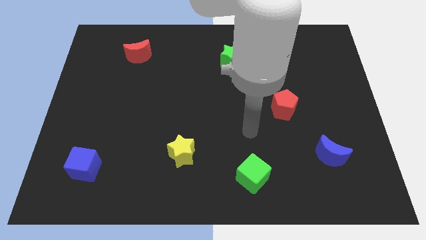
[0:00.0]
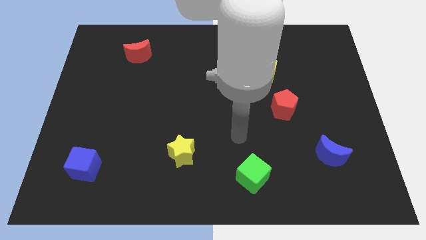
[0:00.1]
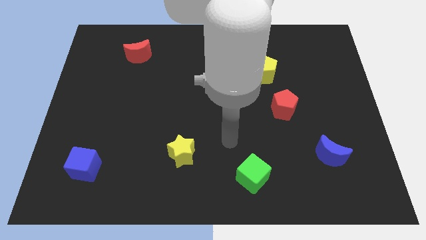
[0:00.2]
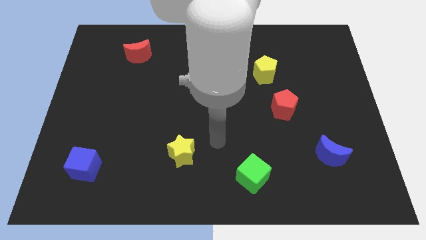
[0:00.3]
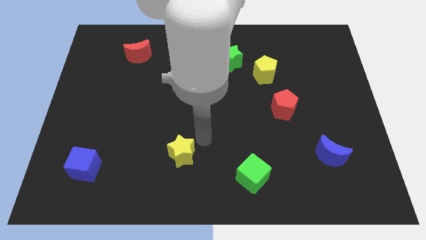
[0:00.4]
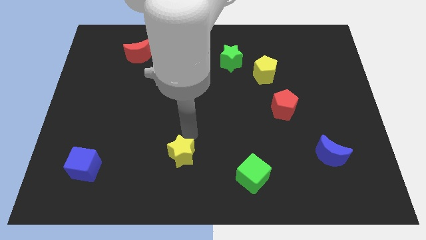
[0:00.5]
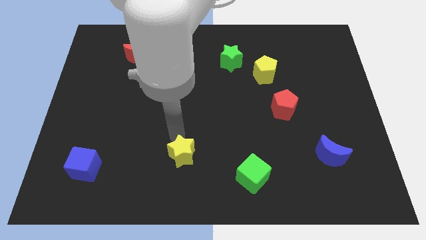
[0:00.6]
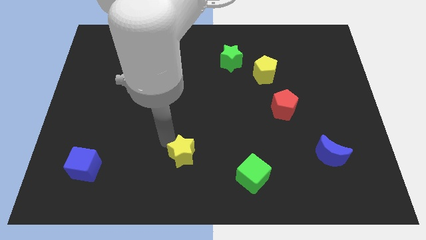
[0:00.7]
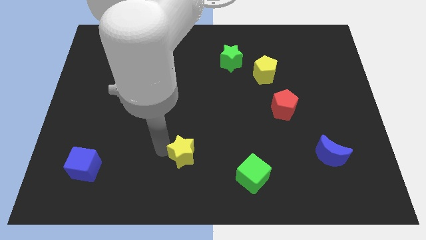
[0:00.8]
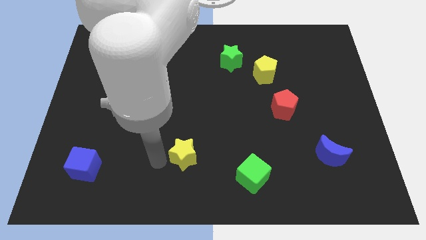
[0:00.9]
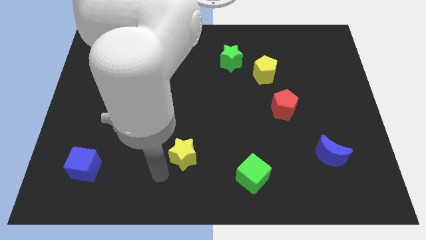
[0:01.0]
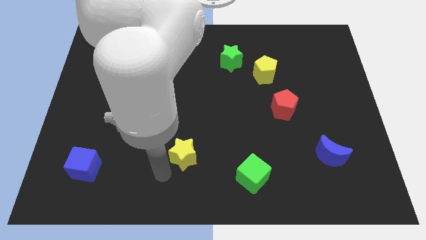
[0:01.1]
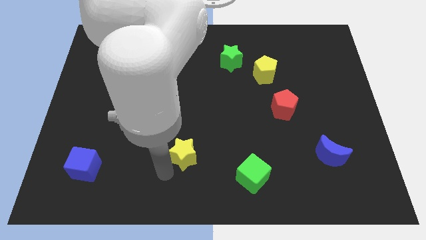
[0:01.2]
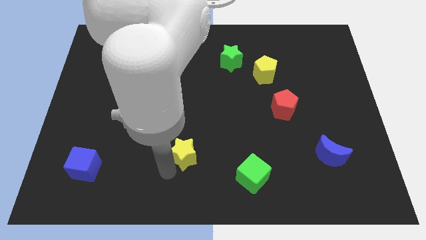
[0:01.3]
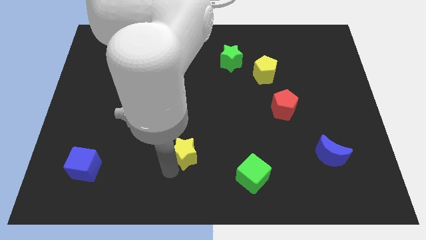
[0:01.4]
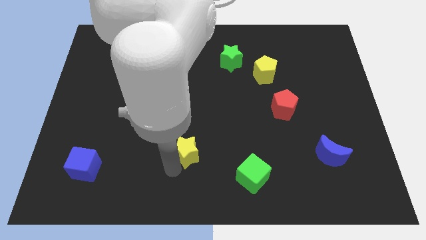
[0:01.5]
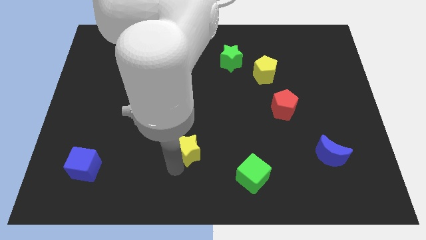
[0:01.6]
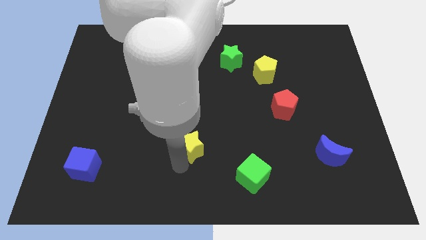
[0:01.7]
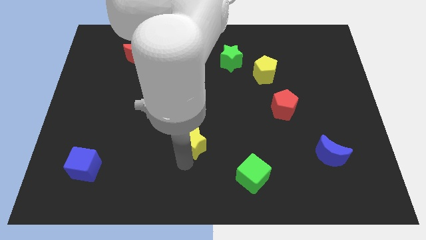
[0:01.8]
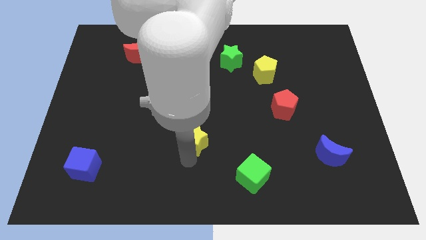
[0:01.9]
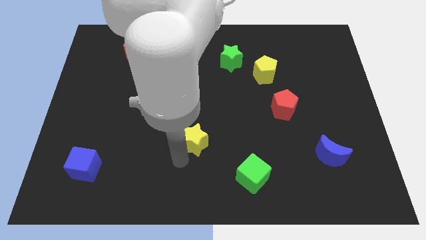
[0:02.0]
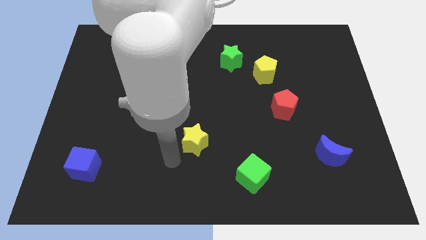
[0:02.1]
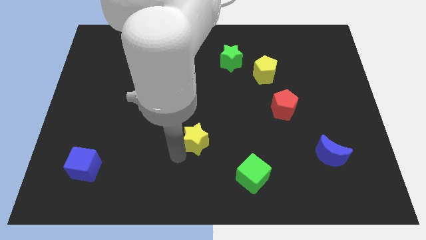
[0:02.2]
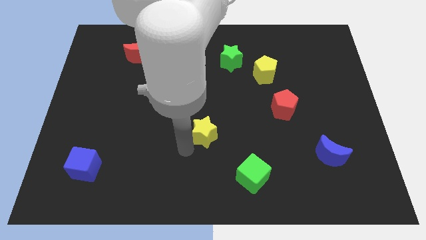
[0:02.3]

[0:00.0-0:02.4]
slide the yellow star diagonally upwards and to the right somewhat

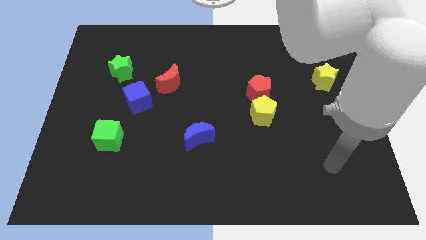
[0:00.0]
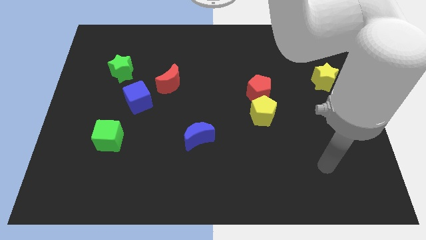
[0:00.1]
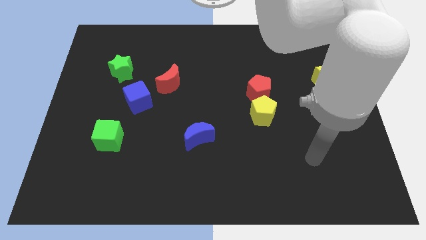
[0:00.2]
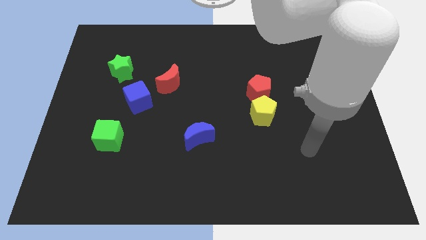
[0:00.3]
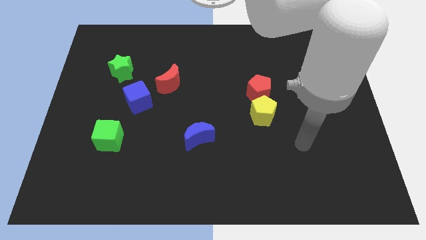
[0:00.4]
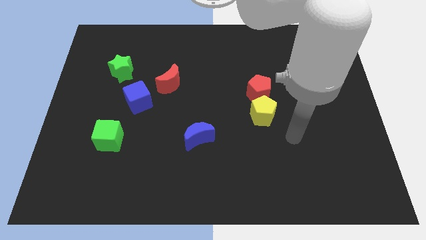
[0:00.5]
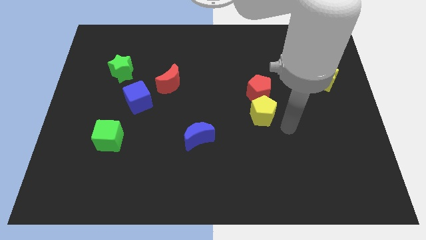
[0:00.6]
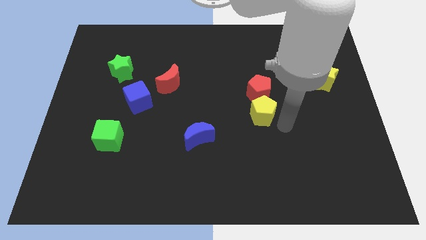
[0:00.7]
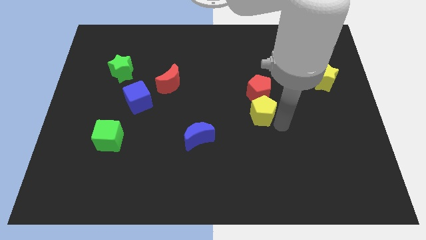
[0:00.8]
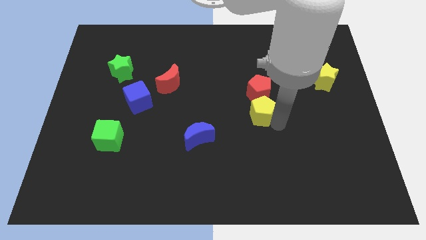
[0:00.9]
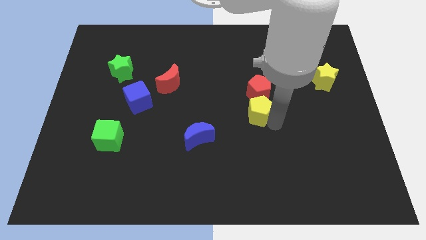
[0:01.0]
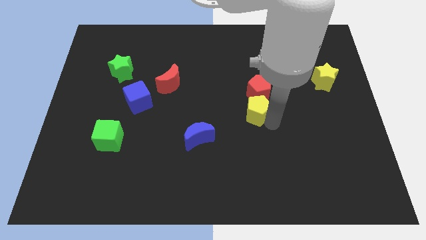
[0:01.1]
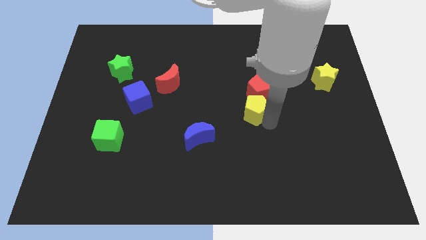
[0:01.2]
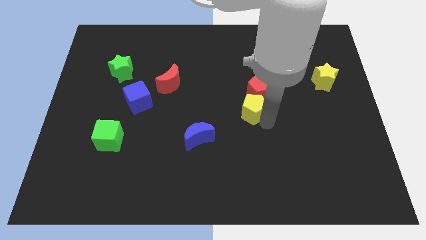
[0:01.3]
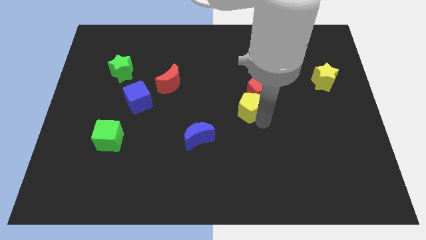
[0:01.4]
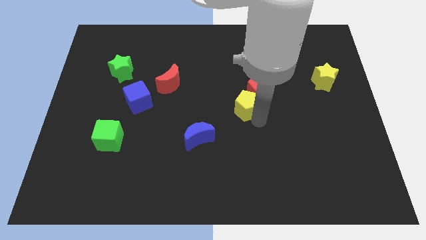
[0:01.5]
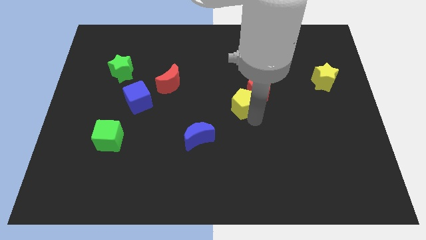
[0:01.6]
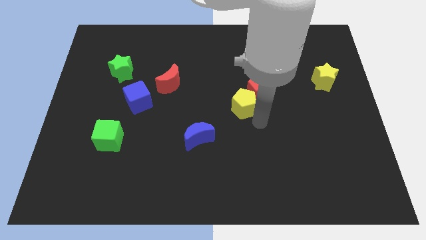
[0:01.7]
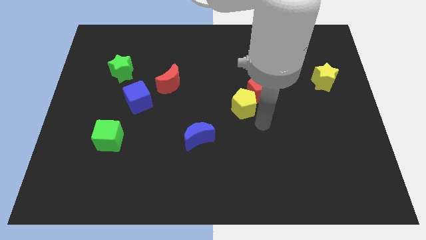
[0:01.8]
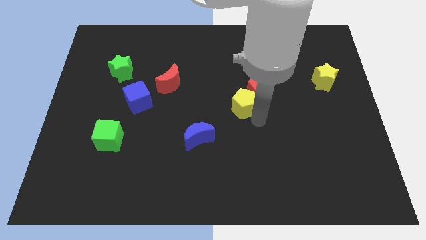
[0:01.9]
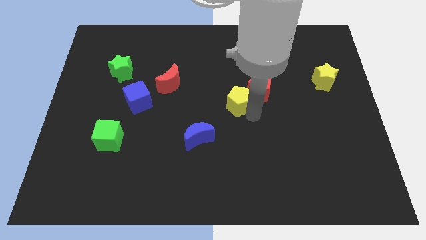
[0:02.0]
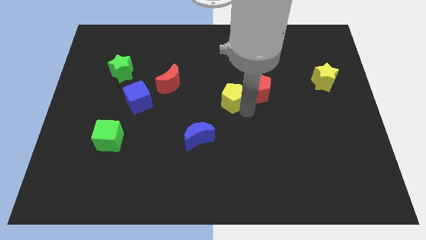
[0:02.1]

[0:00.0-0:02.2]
move the yellow pentagon diagonally upwards and left a little

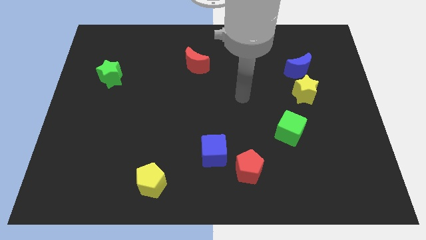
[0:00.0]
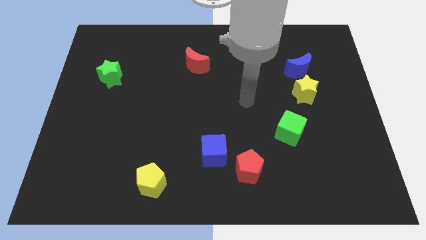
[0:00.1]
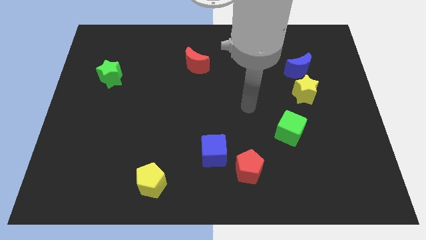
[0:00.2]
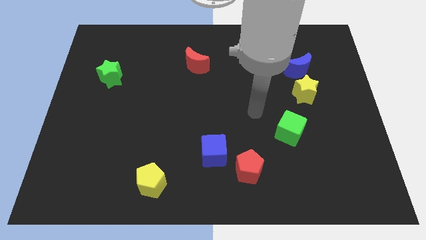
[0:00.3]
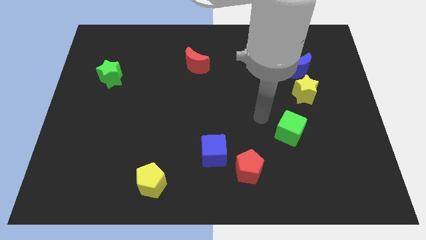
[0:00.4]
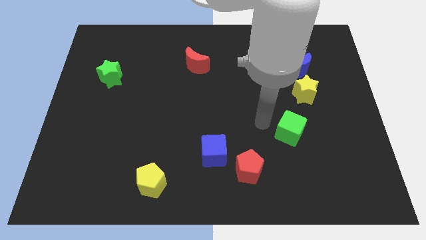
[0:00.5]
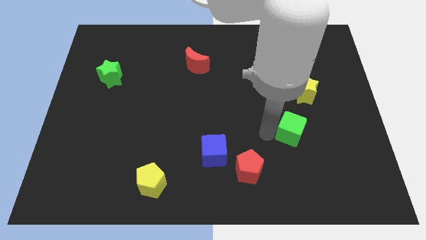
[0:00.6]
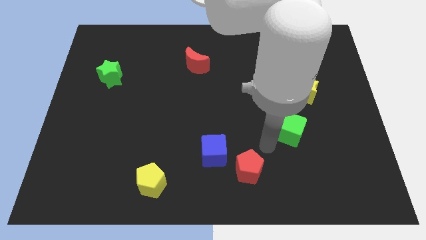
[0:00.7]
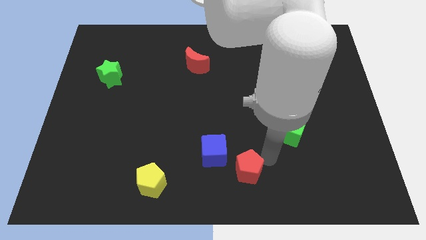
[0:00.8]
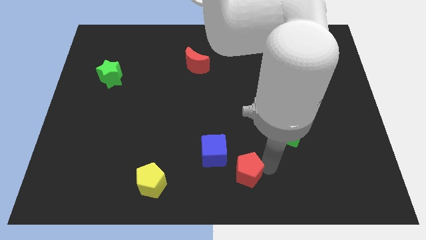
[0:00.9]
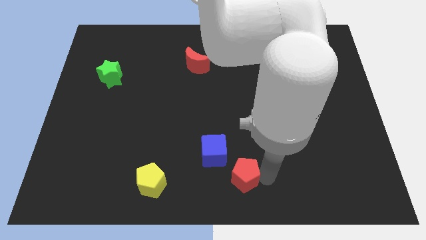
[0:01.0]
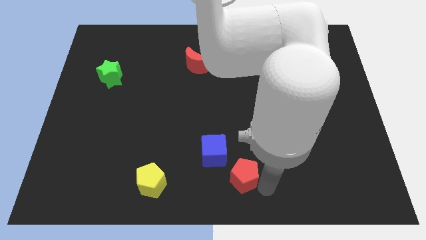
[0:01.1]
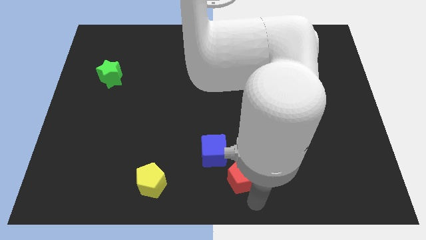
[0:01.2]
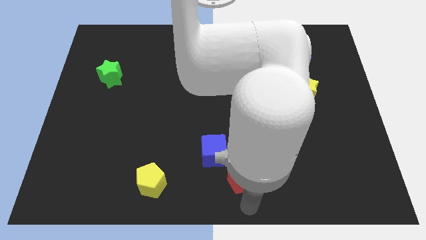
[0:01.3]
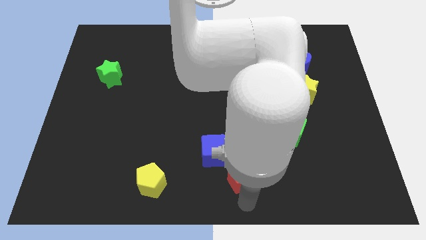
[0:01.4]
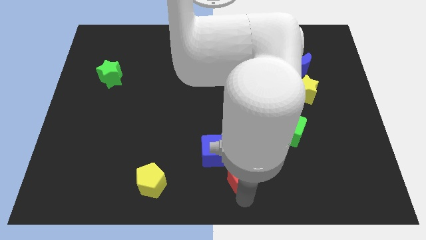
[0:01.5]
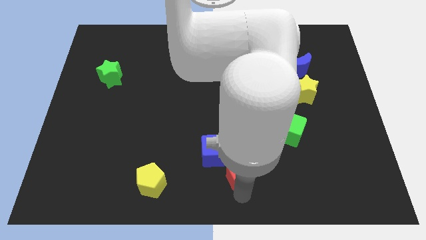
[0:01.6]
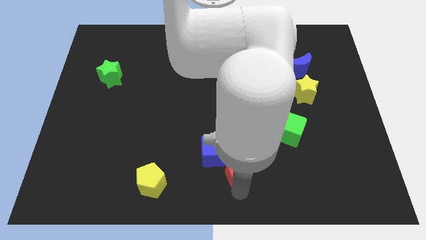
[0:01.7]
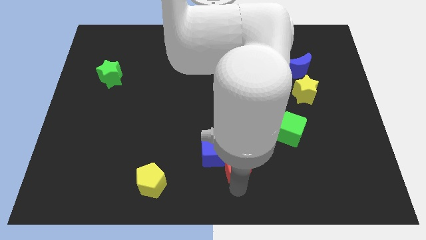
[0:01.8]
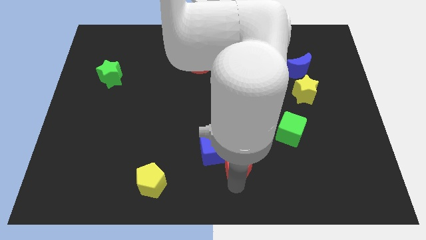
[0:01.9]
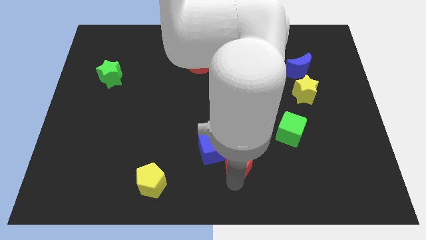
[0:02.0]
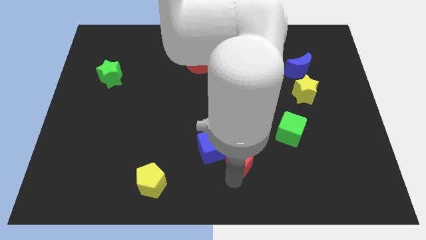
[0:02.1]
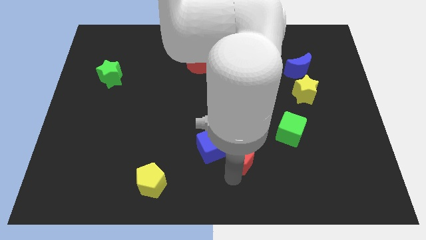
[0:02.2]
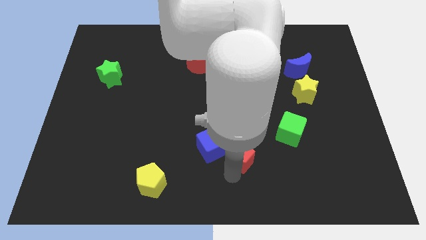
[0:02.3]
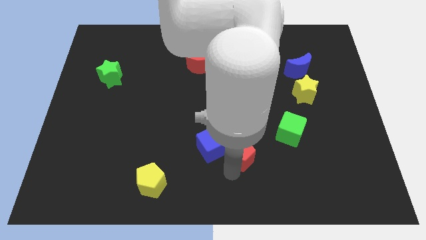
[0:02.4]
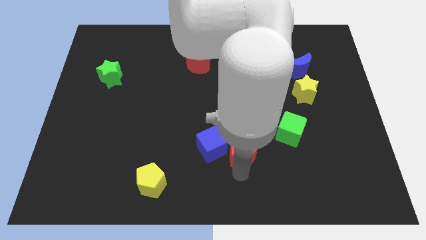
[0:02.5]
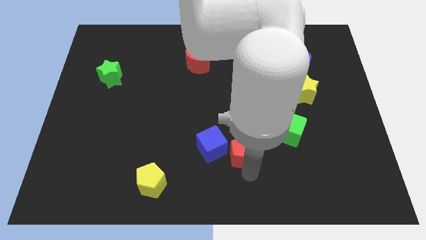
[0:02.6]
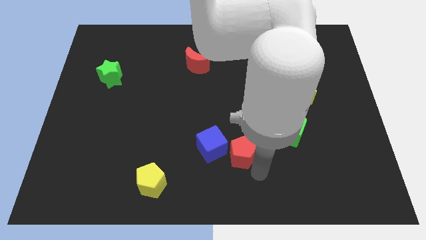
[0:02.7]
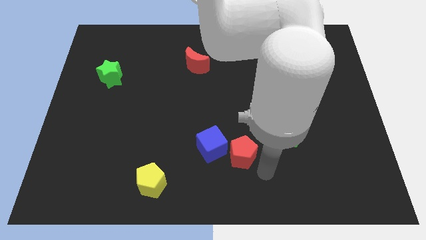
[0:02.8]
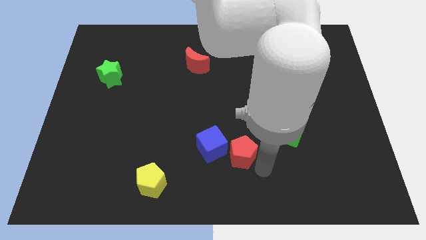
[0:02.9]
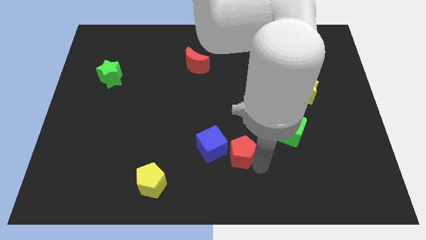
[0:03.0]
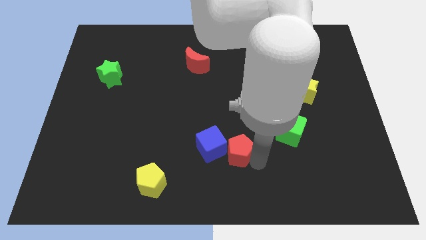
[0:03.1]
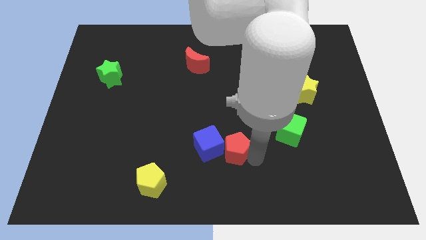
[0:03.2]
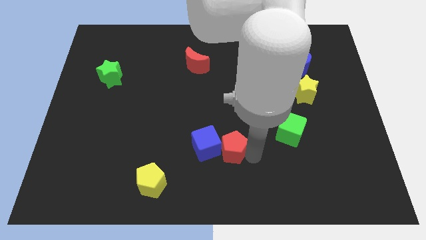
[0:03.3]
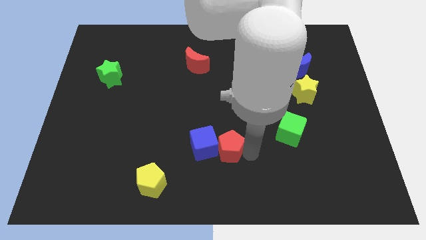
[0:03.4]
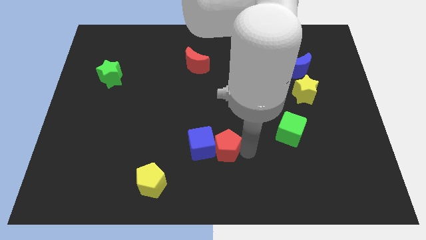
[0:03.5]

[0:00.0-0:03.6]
slightly push the red pentagon up and left
